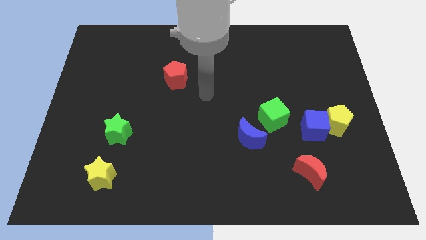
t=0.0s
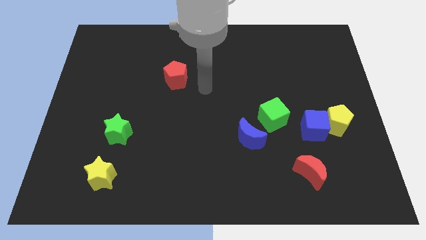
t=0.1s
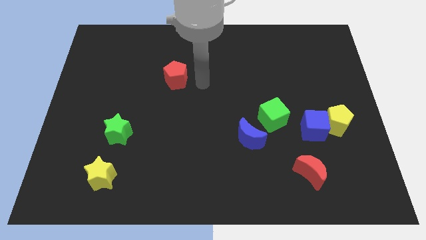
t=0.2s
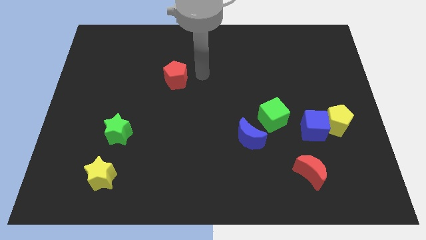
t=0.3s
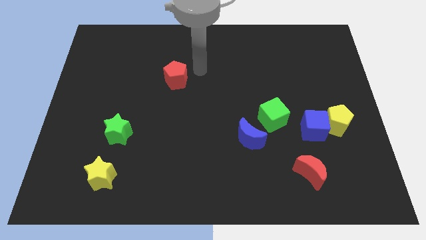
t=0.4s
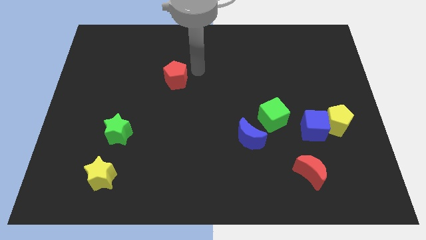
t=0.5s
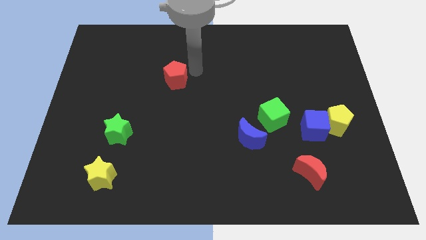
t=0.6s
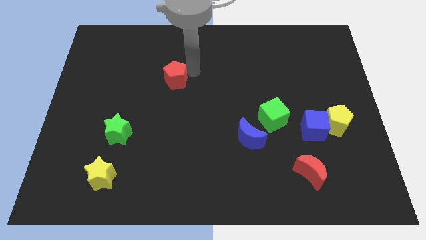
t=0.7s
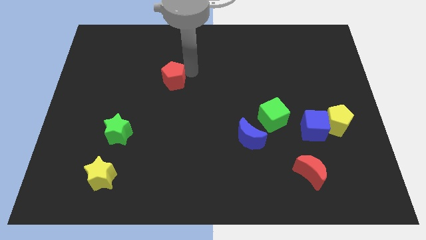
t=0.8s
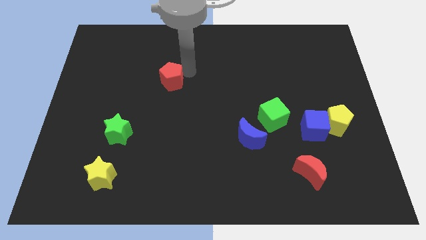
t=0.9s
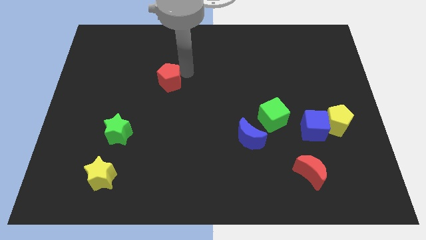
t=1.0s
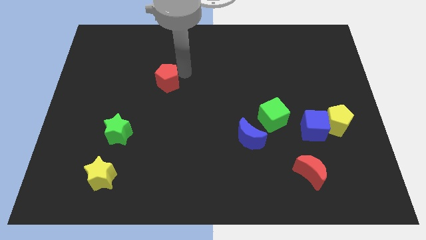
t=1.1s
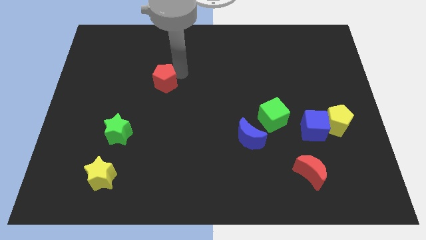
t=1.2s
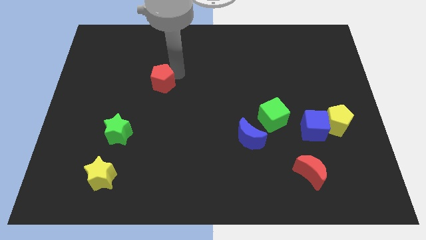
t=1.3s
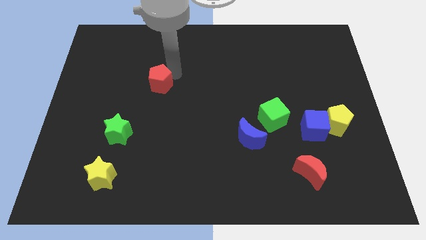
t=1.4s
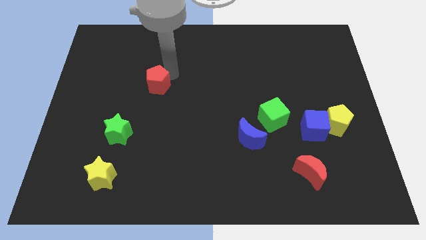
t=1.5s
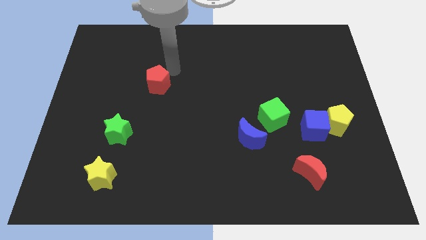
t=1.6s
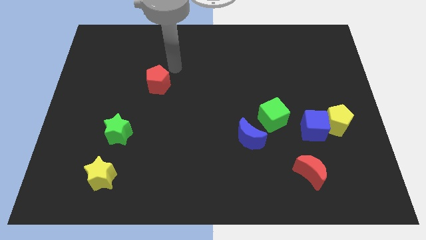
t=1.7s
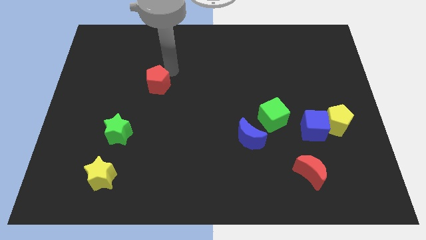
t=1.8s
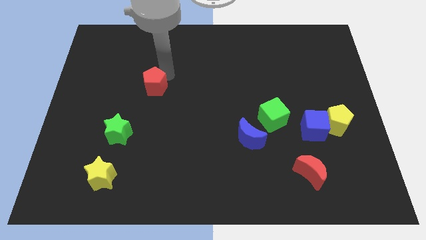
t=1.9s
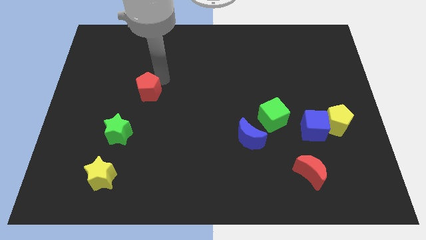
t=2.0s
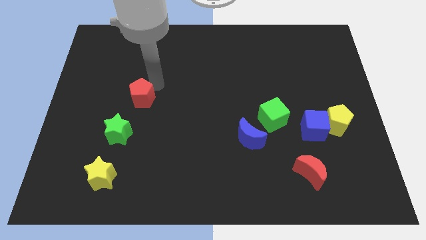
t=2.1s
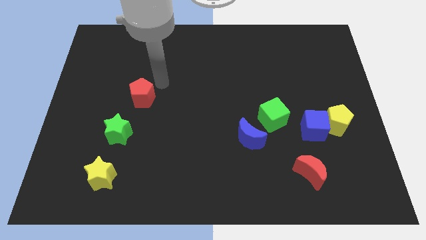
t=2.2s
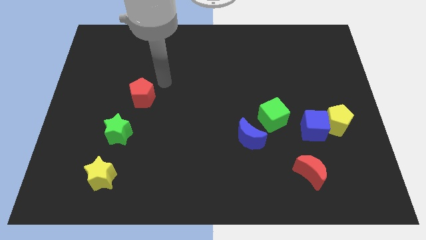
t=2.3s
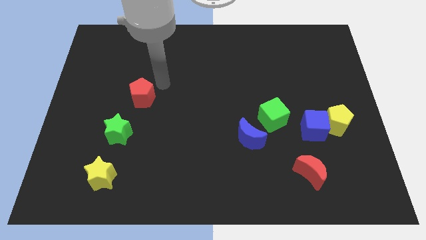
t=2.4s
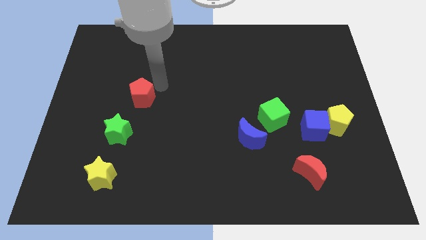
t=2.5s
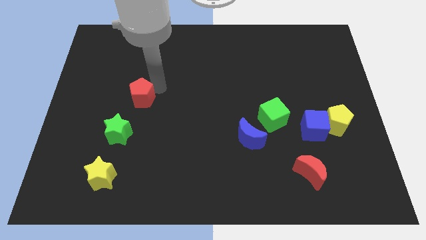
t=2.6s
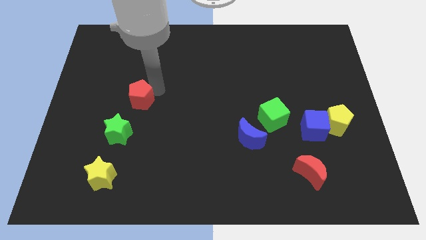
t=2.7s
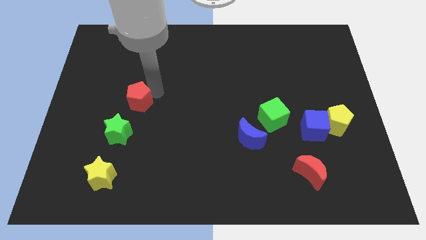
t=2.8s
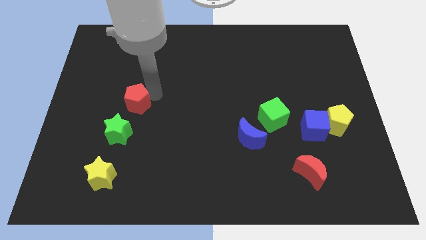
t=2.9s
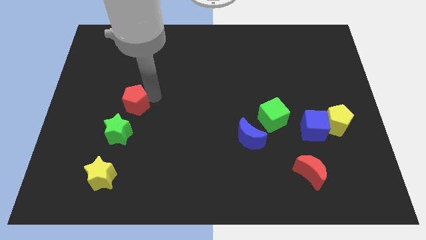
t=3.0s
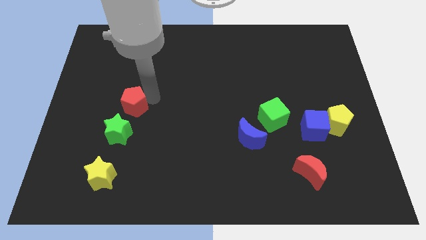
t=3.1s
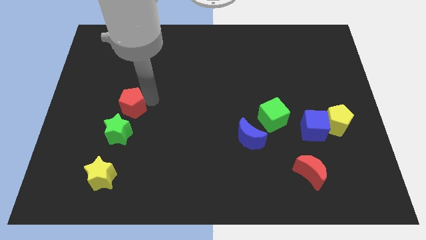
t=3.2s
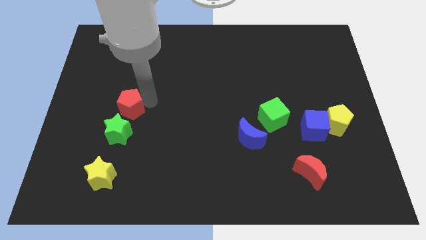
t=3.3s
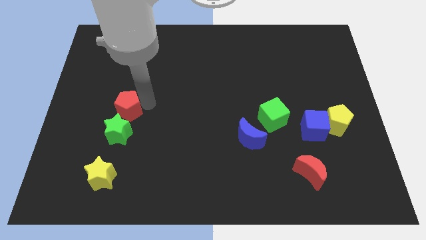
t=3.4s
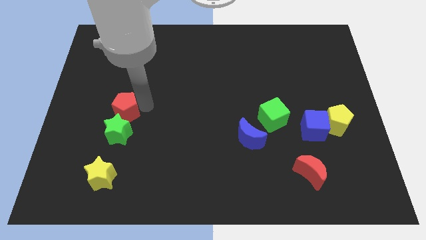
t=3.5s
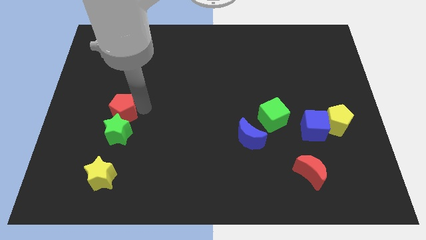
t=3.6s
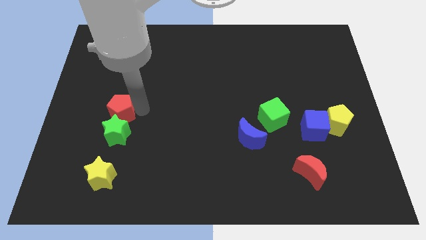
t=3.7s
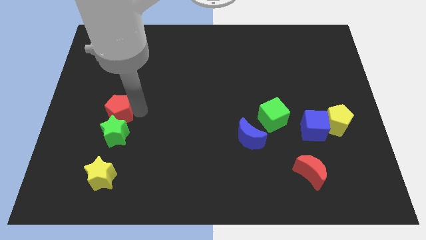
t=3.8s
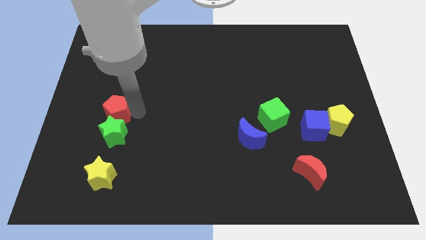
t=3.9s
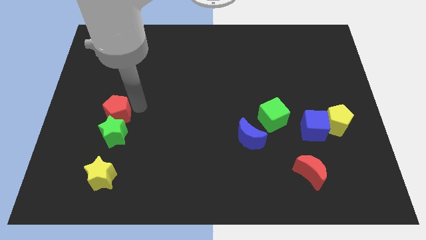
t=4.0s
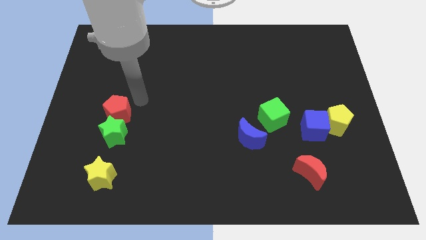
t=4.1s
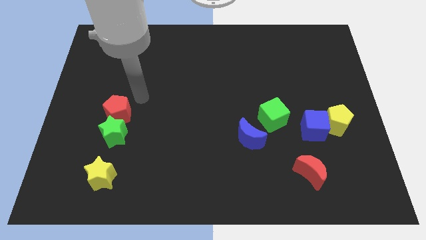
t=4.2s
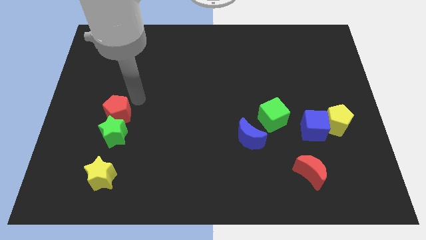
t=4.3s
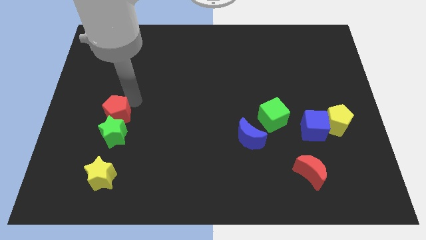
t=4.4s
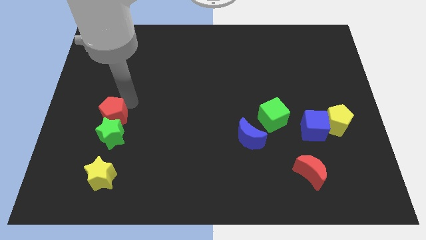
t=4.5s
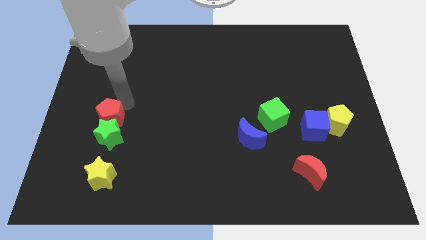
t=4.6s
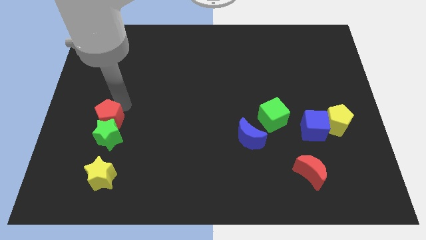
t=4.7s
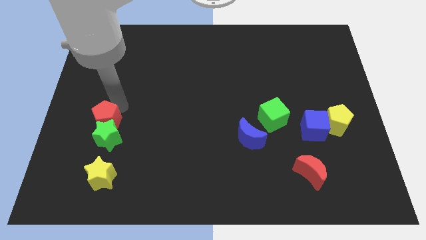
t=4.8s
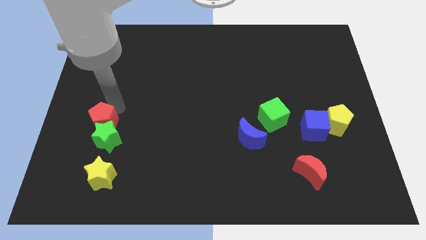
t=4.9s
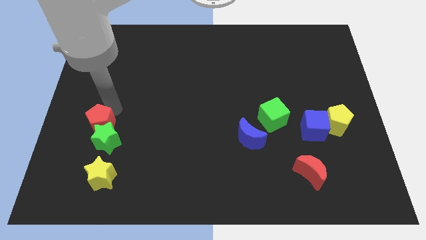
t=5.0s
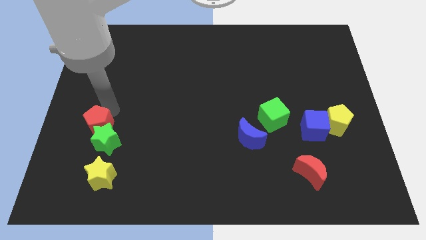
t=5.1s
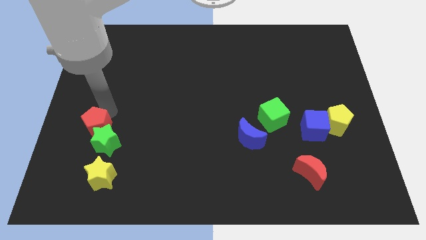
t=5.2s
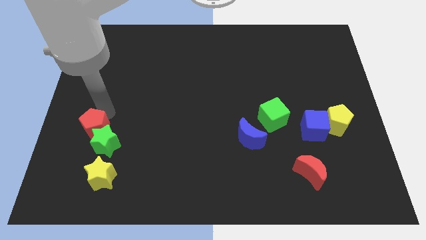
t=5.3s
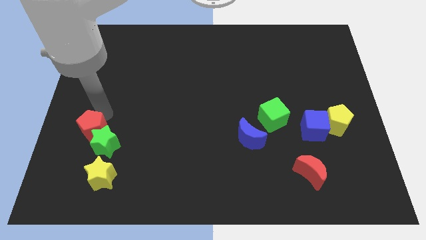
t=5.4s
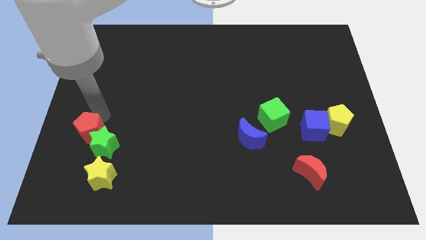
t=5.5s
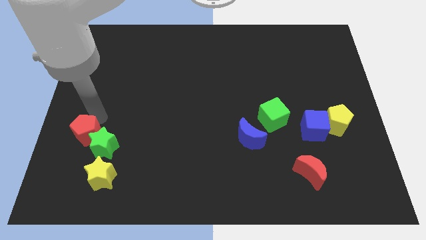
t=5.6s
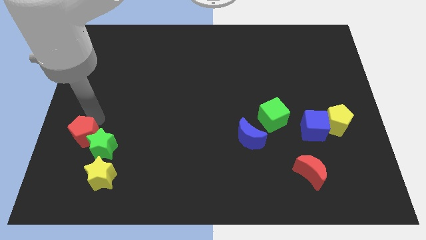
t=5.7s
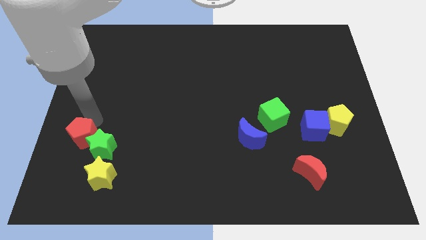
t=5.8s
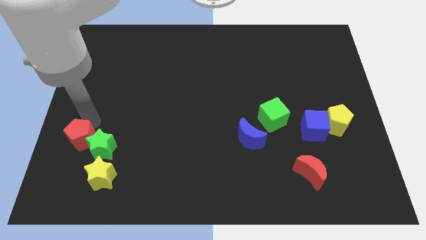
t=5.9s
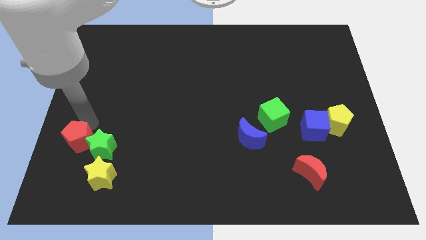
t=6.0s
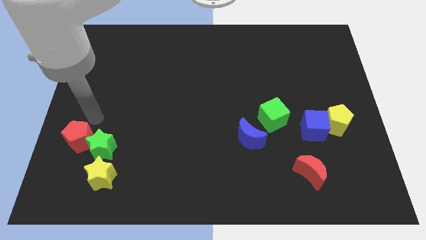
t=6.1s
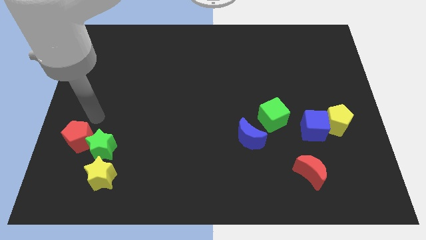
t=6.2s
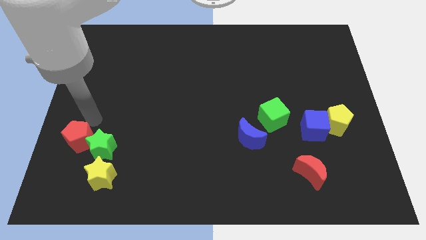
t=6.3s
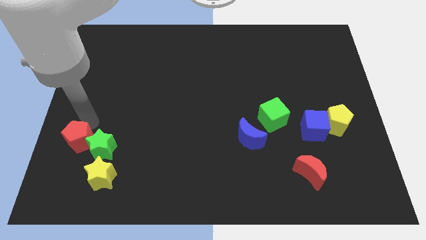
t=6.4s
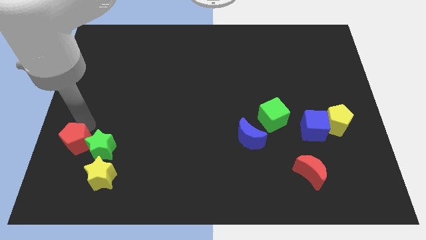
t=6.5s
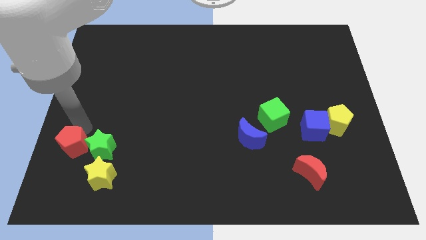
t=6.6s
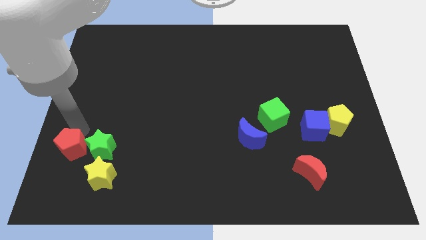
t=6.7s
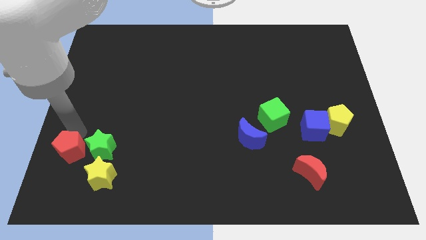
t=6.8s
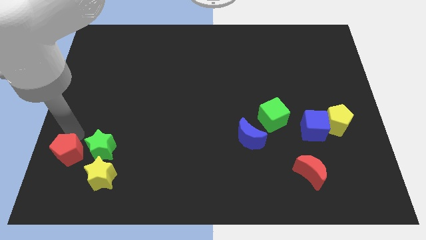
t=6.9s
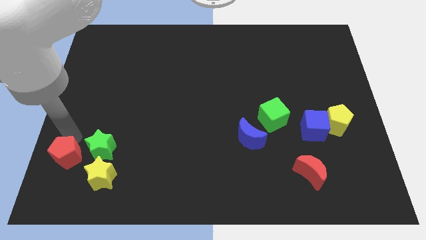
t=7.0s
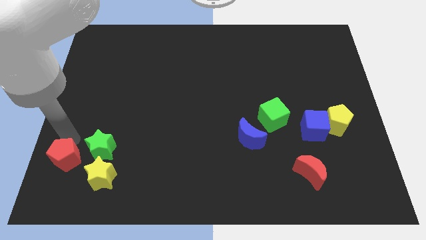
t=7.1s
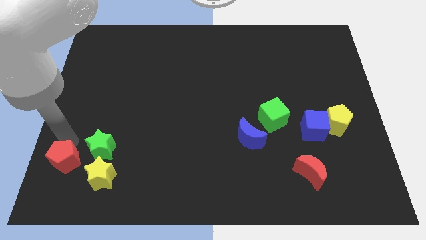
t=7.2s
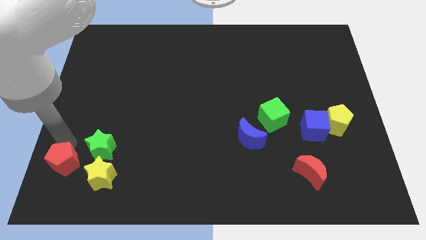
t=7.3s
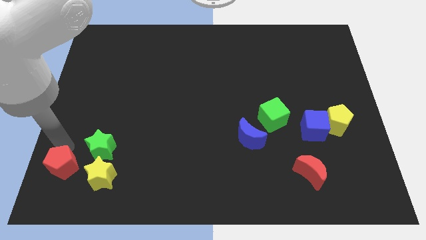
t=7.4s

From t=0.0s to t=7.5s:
put the red pentagon to the bottom left corner
